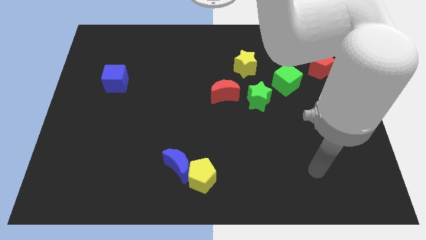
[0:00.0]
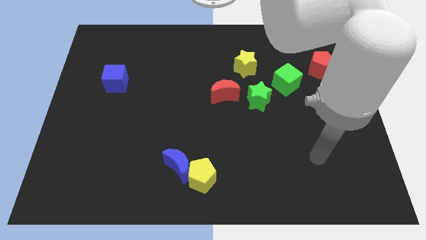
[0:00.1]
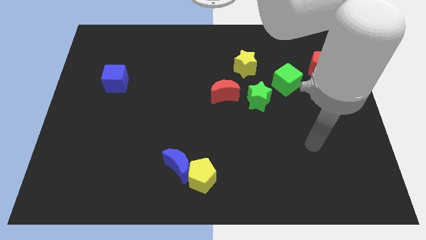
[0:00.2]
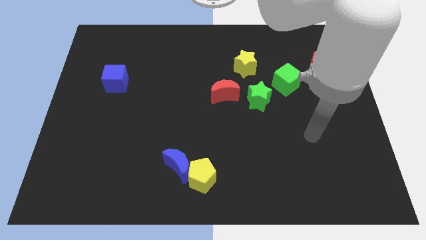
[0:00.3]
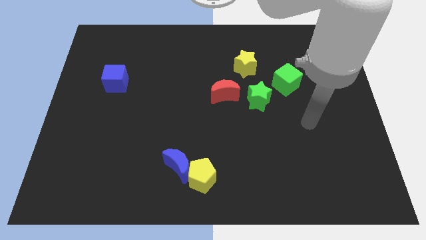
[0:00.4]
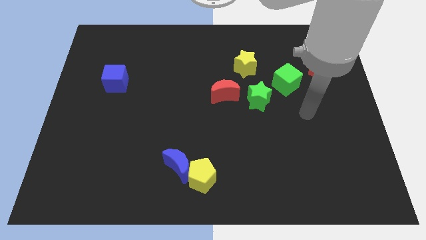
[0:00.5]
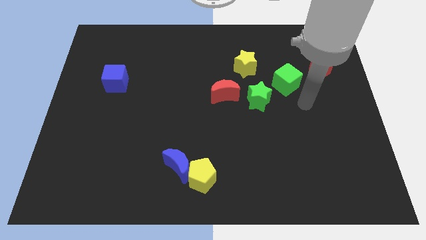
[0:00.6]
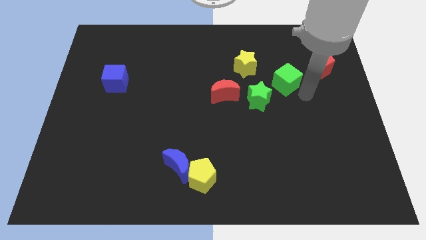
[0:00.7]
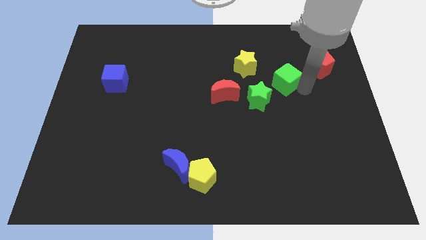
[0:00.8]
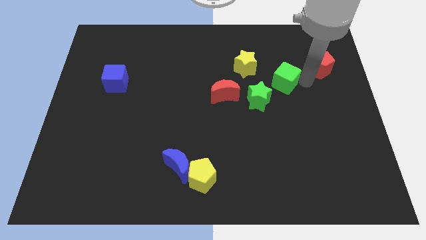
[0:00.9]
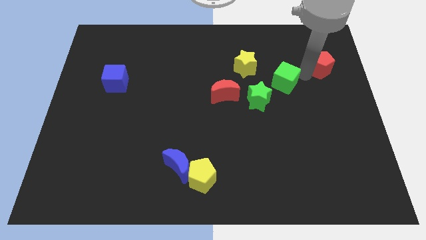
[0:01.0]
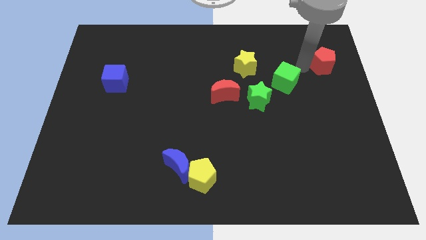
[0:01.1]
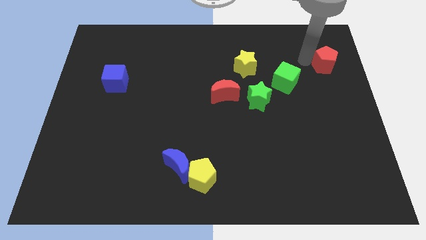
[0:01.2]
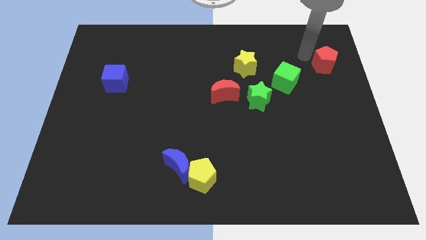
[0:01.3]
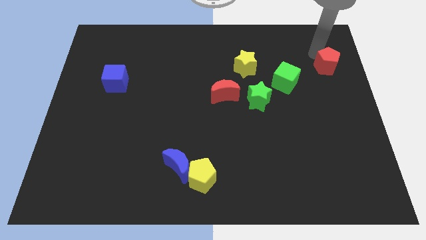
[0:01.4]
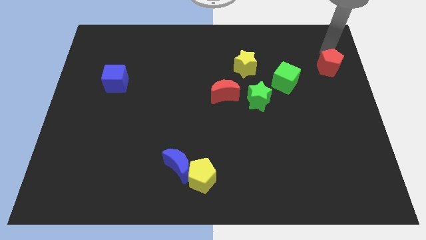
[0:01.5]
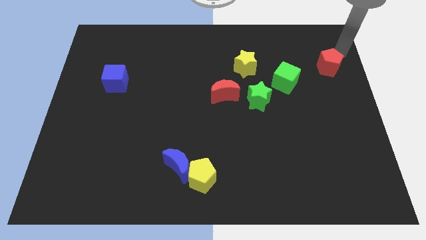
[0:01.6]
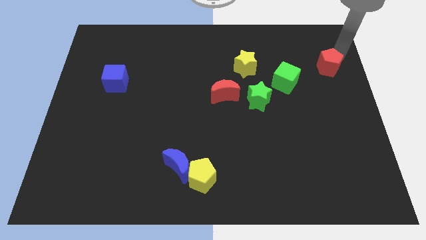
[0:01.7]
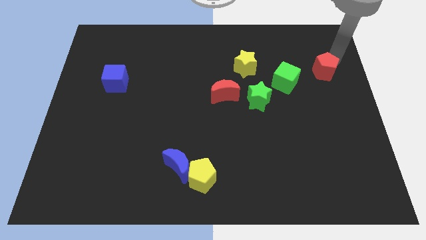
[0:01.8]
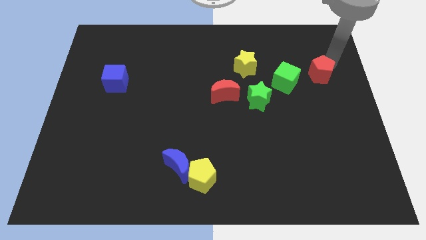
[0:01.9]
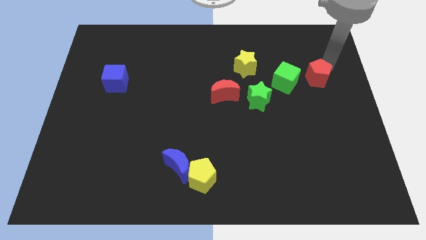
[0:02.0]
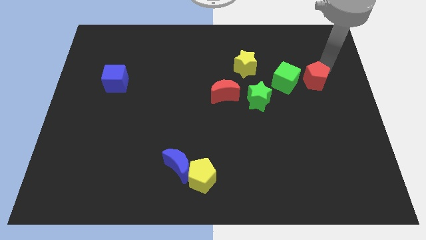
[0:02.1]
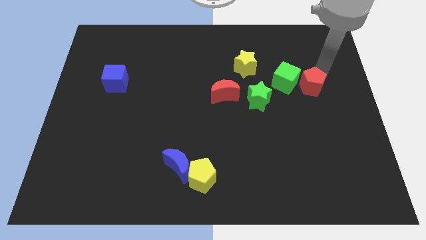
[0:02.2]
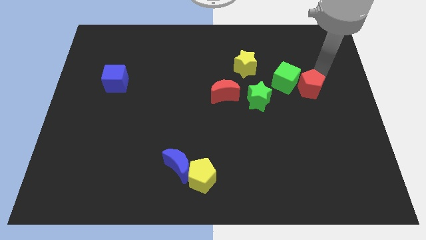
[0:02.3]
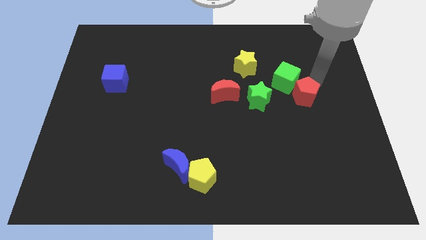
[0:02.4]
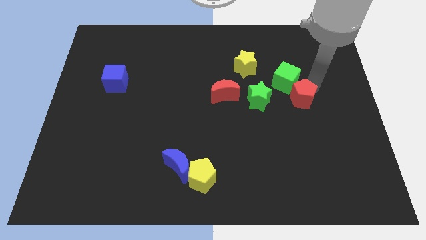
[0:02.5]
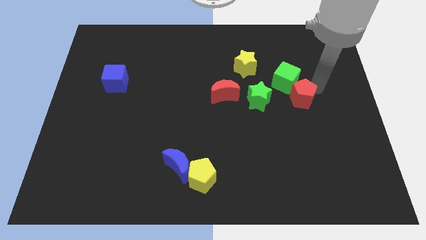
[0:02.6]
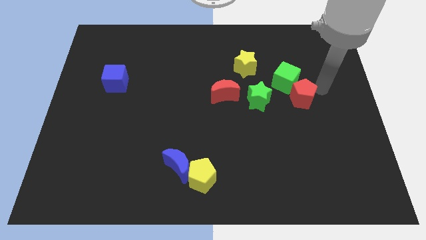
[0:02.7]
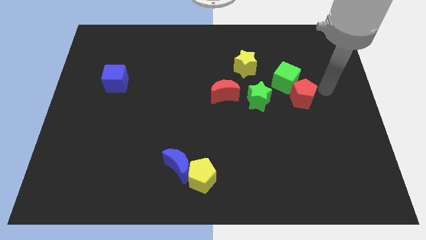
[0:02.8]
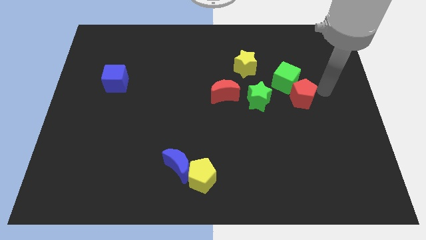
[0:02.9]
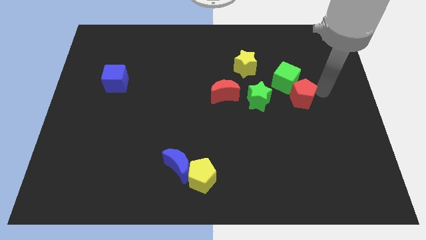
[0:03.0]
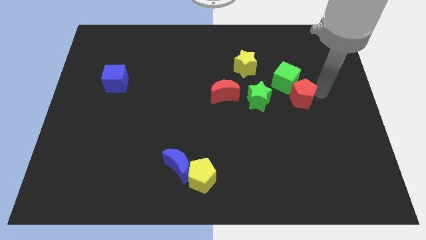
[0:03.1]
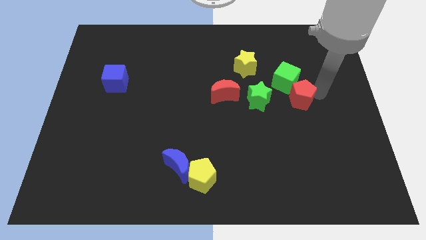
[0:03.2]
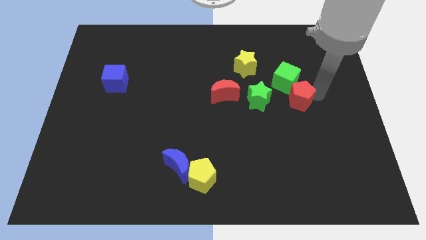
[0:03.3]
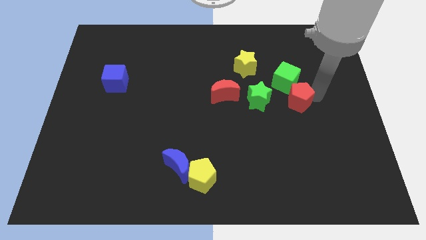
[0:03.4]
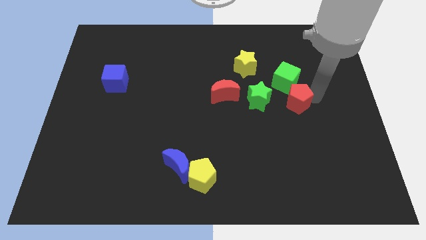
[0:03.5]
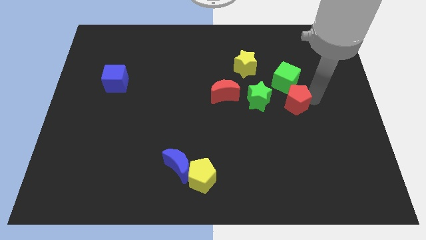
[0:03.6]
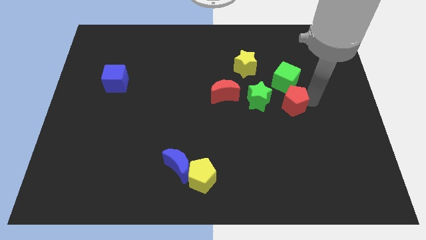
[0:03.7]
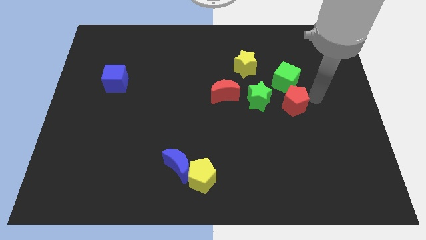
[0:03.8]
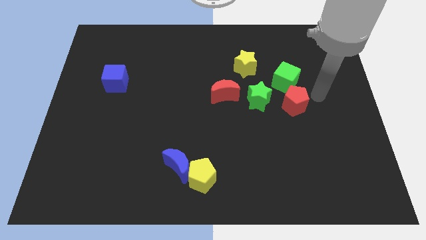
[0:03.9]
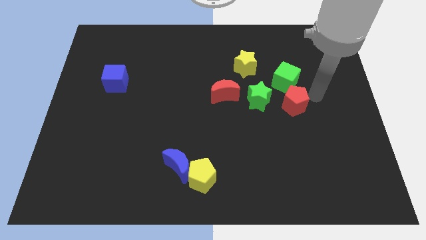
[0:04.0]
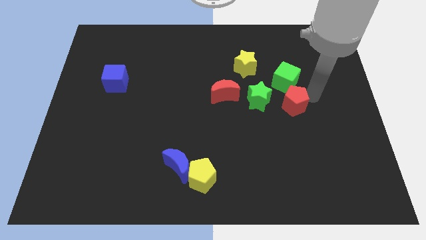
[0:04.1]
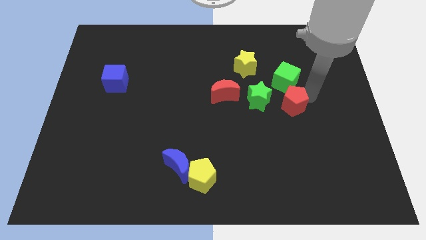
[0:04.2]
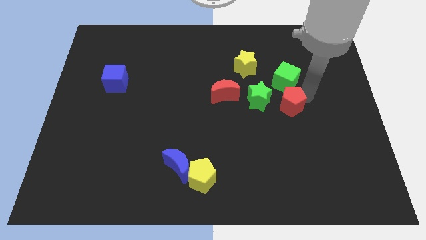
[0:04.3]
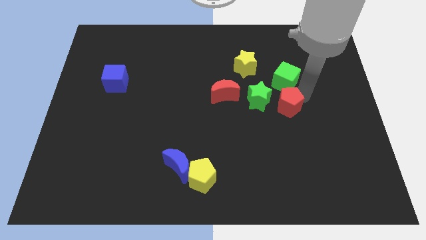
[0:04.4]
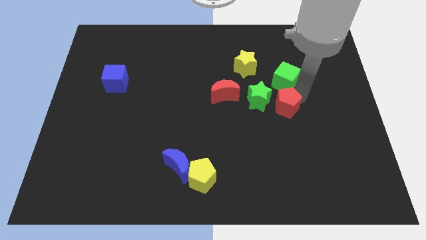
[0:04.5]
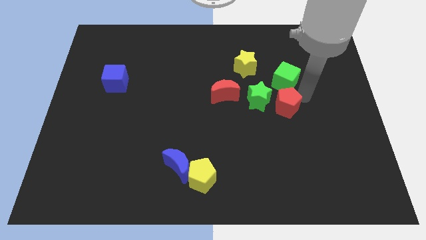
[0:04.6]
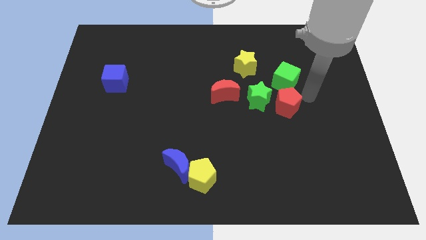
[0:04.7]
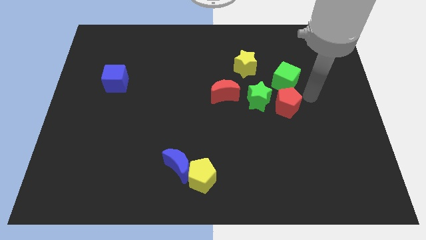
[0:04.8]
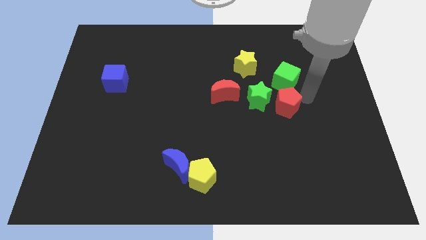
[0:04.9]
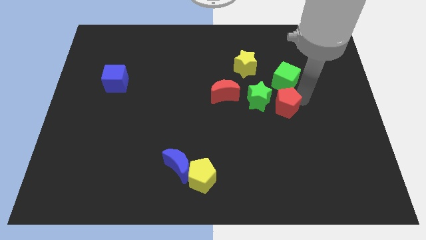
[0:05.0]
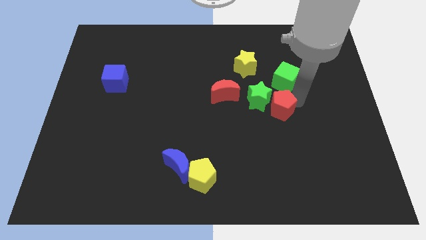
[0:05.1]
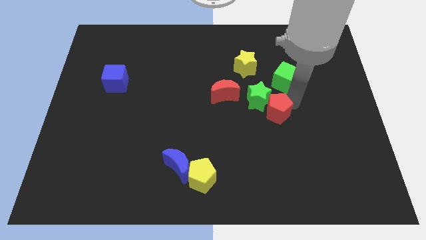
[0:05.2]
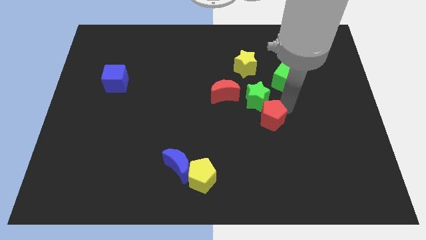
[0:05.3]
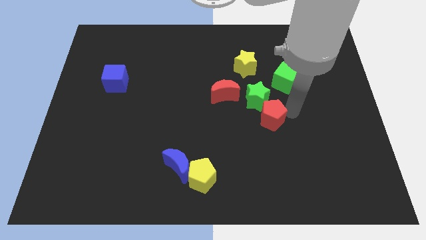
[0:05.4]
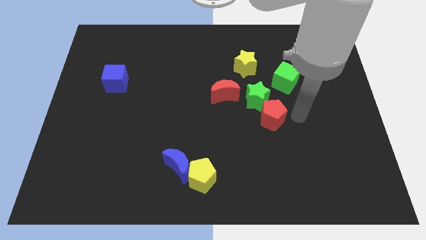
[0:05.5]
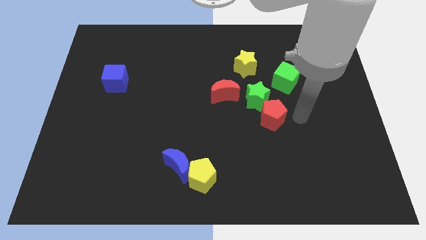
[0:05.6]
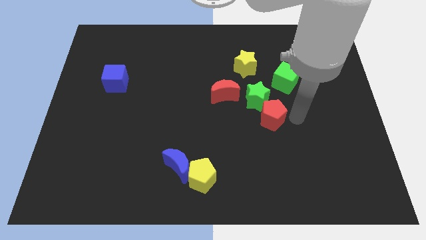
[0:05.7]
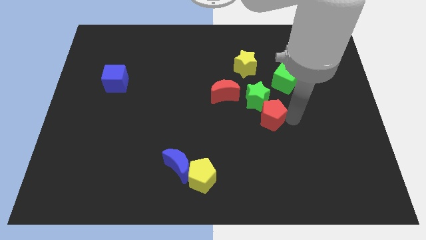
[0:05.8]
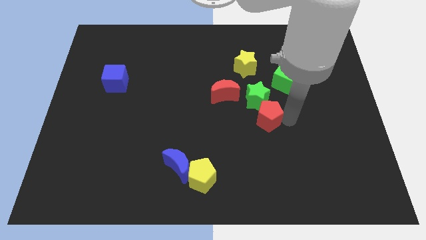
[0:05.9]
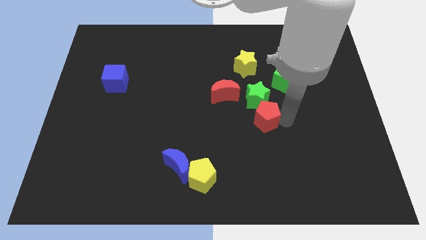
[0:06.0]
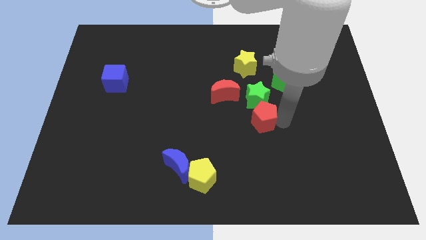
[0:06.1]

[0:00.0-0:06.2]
move the red pentagon to the bottom left side of the green star

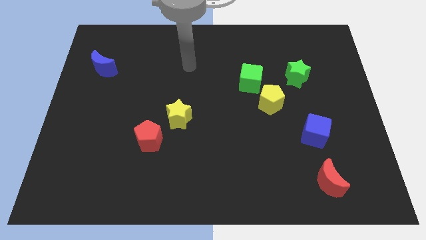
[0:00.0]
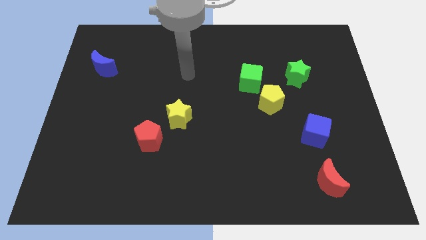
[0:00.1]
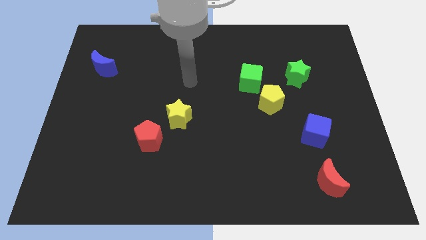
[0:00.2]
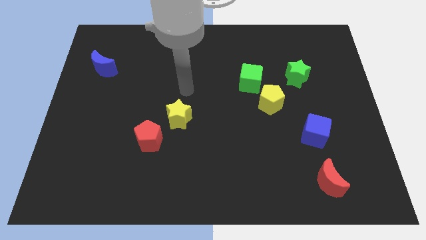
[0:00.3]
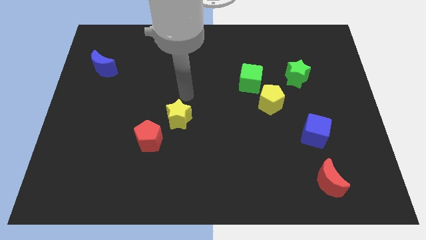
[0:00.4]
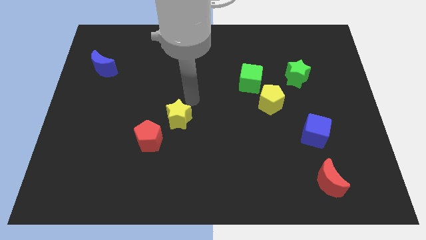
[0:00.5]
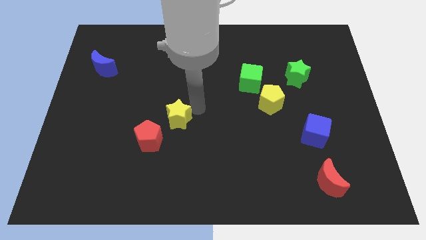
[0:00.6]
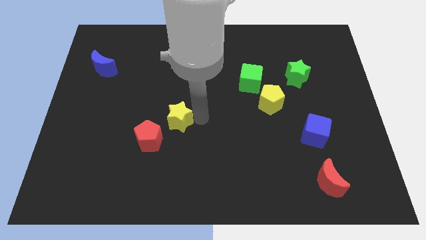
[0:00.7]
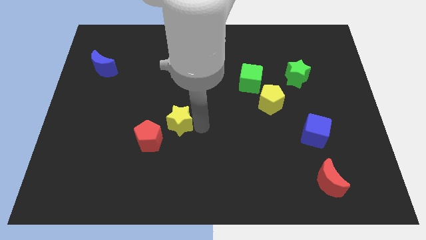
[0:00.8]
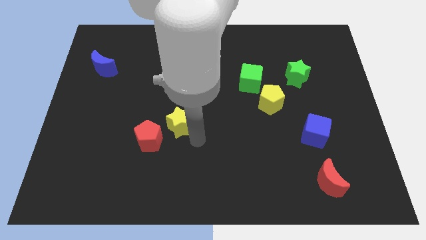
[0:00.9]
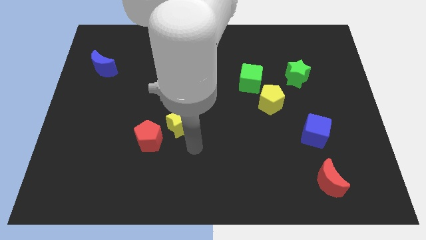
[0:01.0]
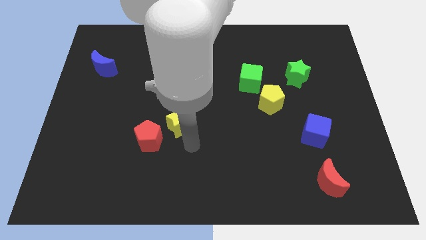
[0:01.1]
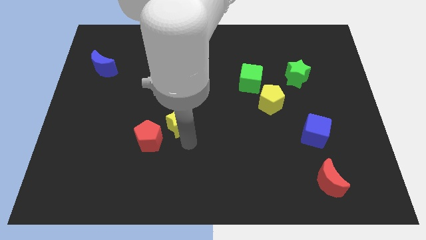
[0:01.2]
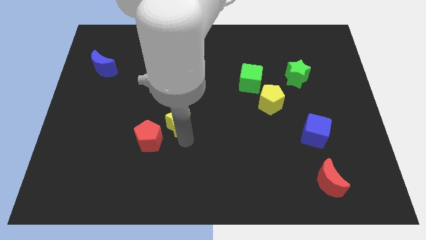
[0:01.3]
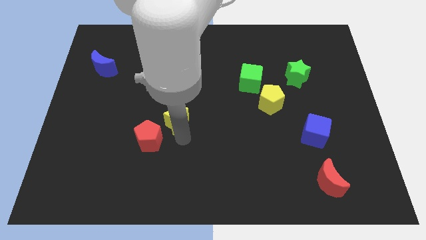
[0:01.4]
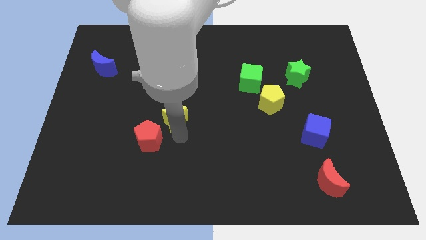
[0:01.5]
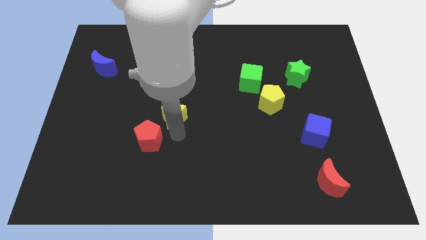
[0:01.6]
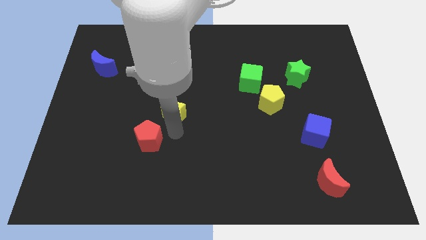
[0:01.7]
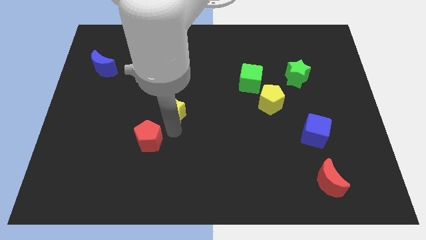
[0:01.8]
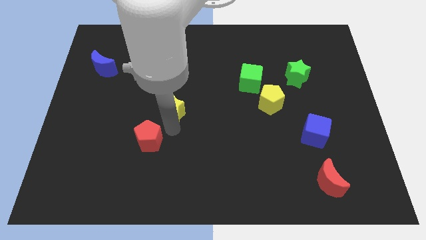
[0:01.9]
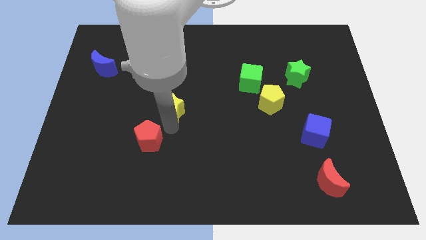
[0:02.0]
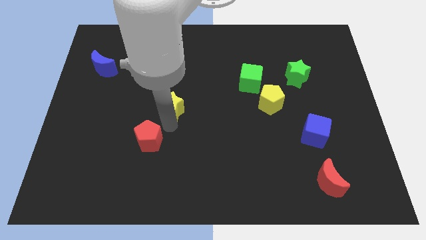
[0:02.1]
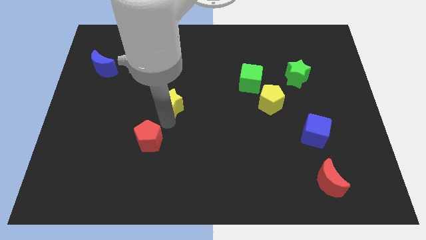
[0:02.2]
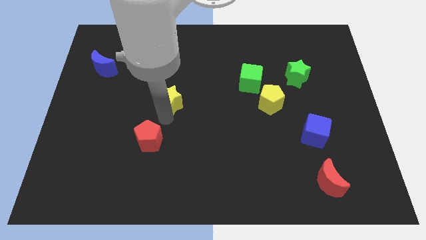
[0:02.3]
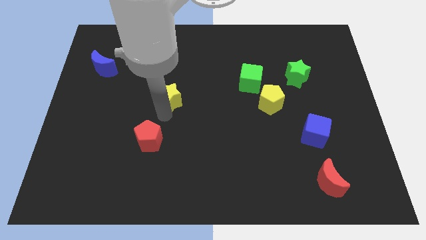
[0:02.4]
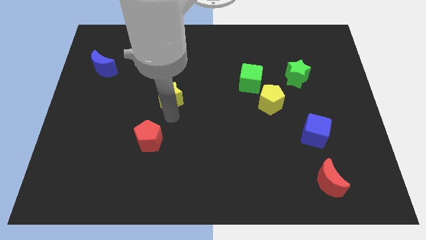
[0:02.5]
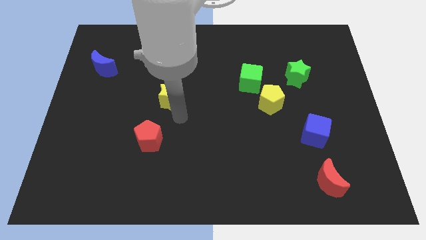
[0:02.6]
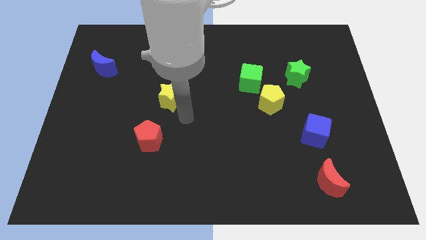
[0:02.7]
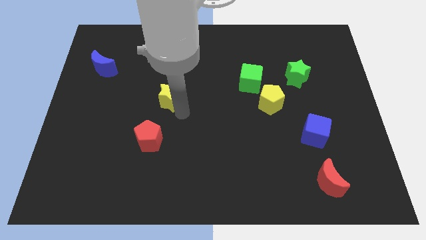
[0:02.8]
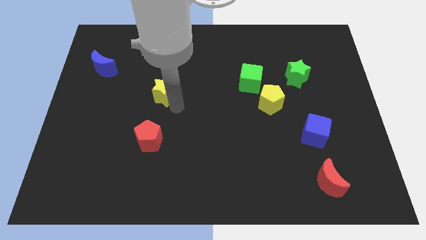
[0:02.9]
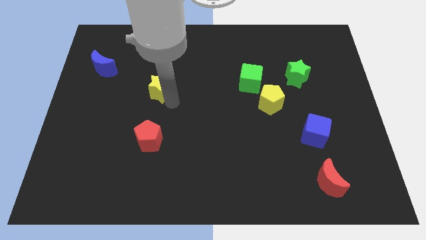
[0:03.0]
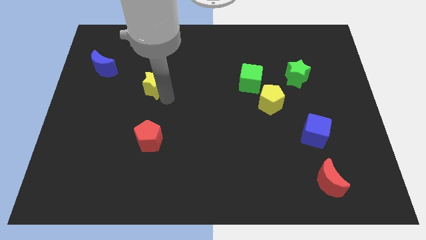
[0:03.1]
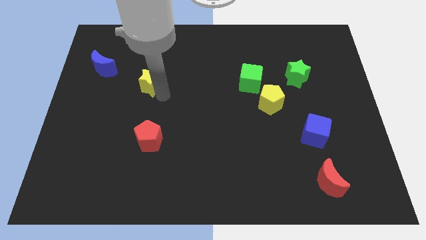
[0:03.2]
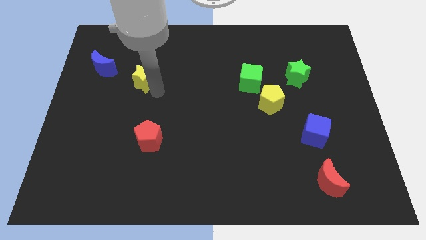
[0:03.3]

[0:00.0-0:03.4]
put the yellow star to the right side of the blue moon
